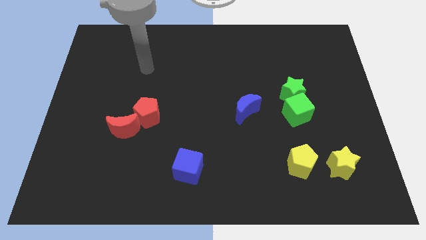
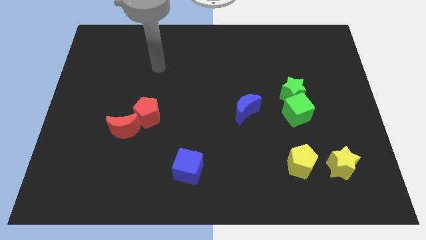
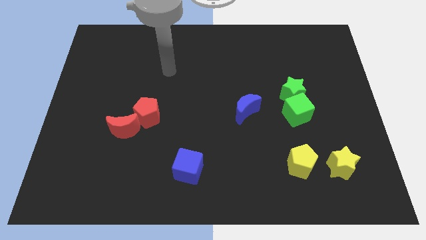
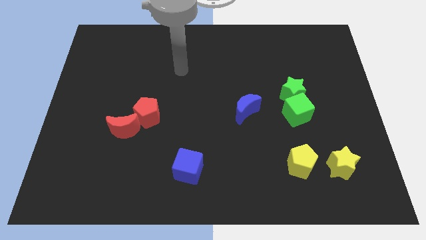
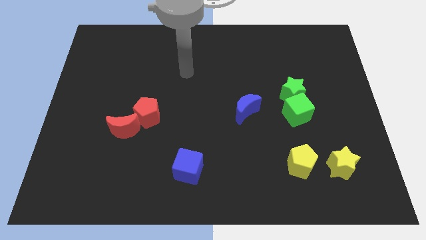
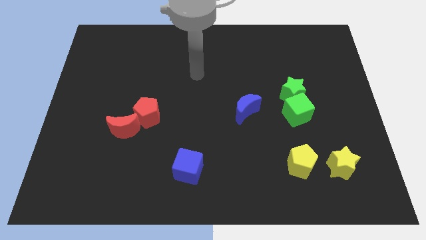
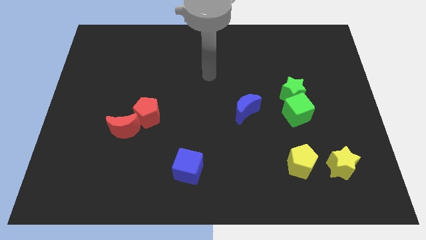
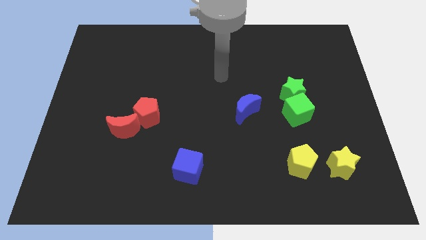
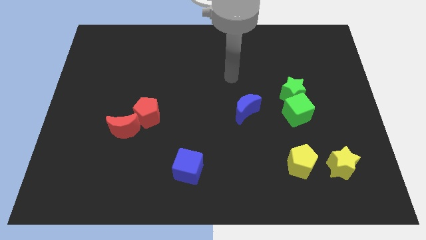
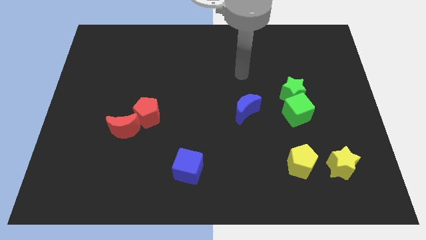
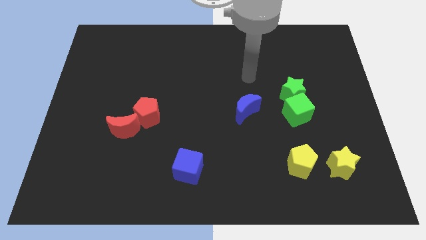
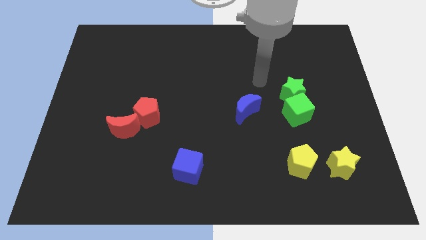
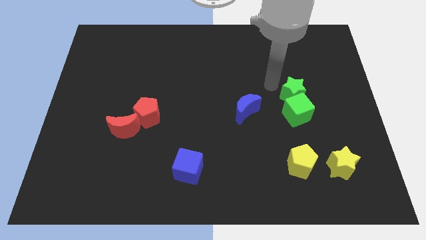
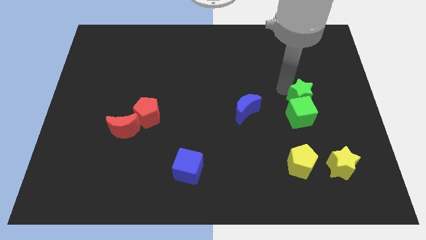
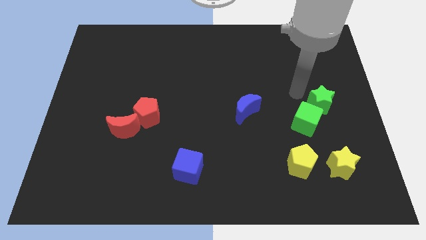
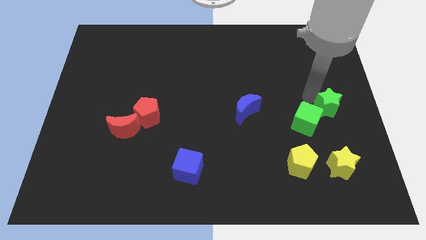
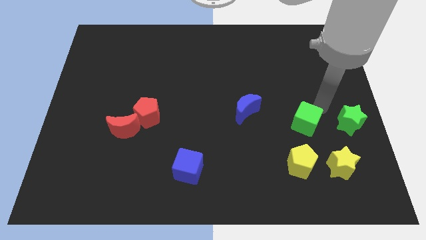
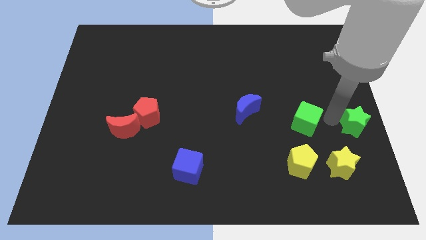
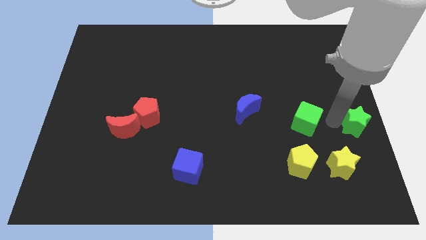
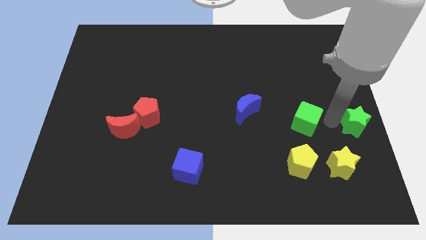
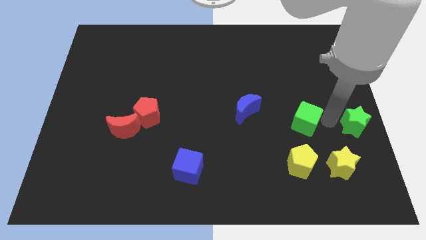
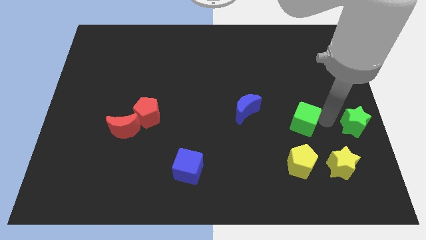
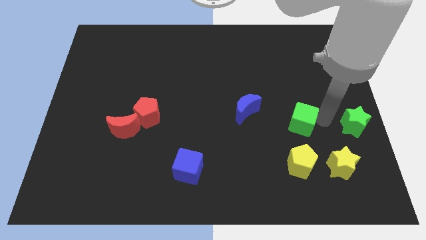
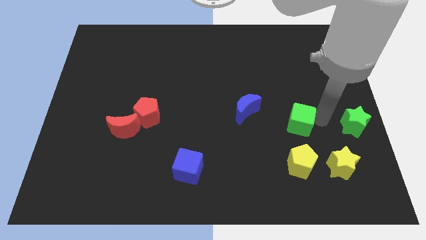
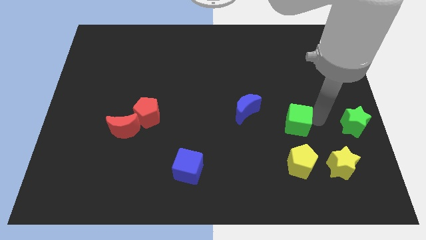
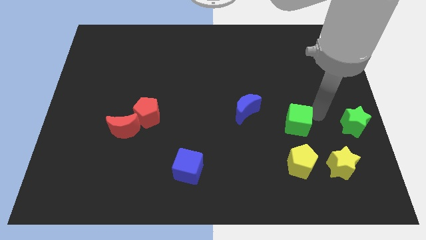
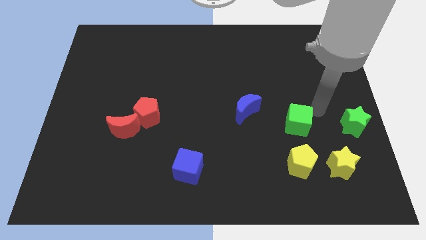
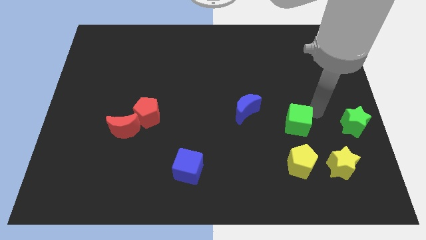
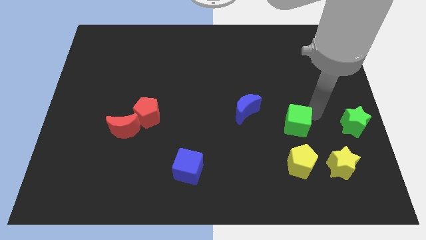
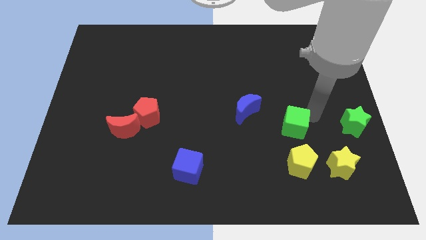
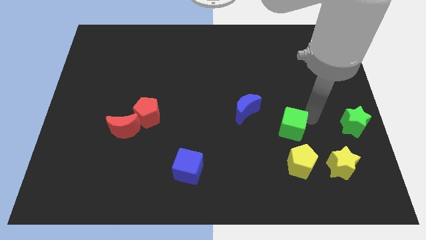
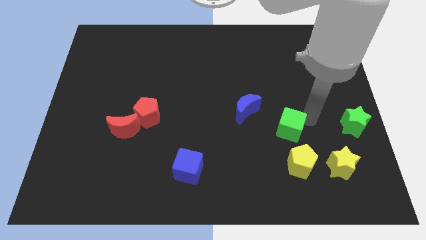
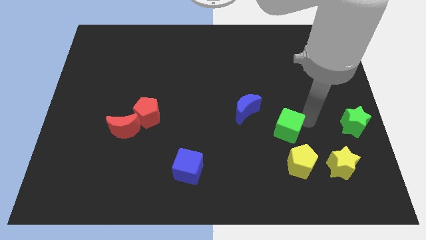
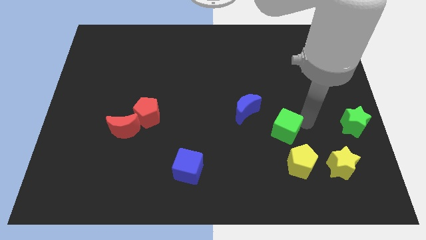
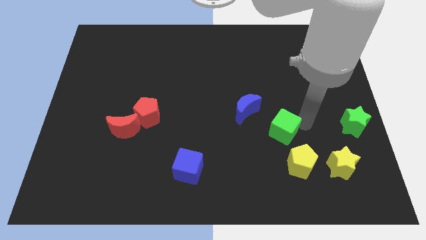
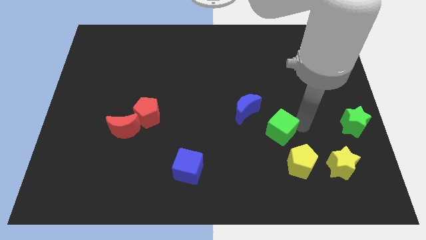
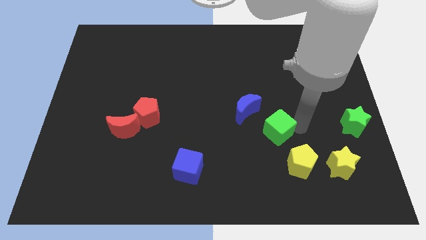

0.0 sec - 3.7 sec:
push the green cube diagonally downwards and left a bit

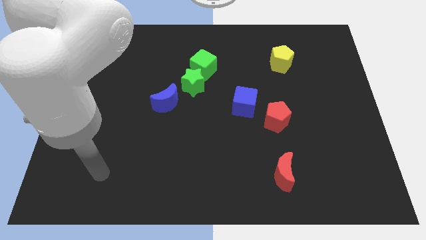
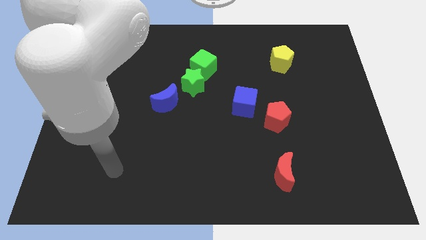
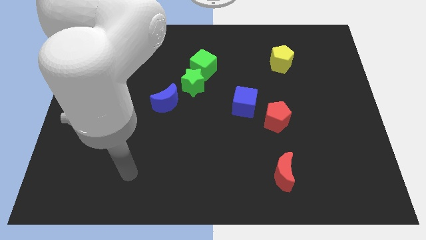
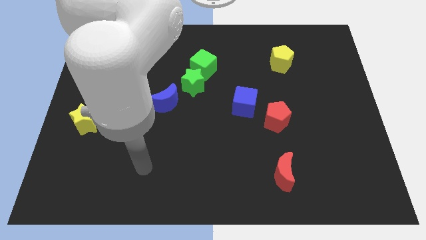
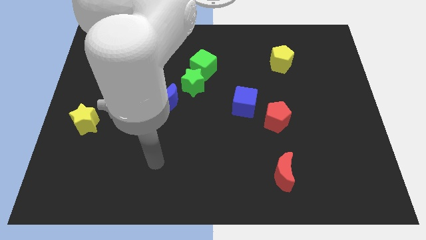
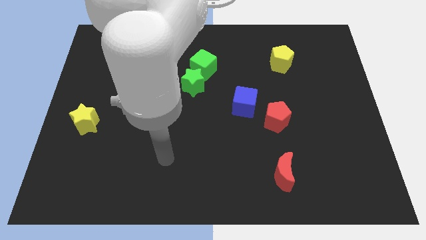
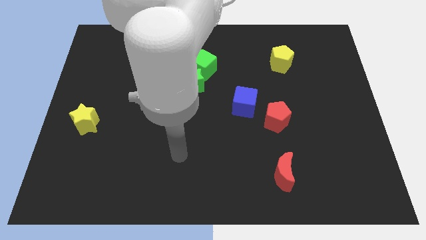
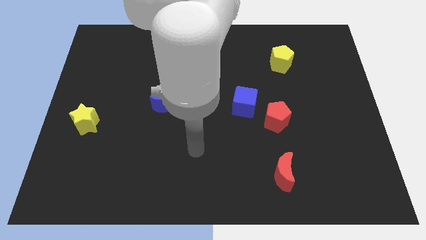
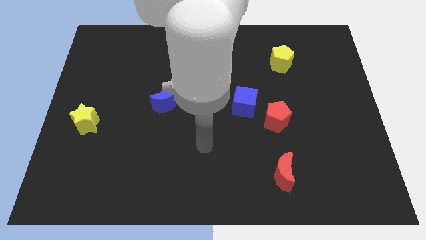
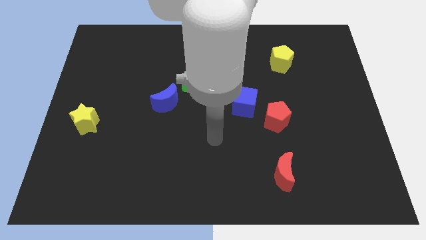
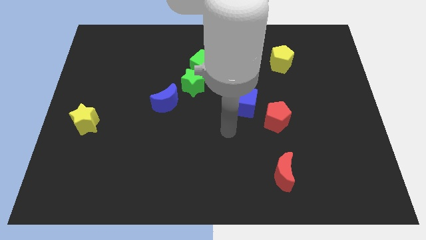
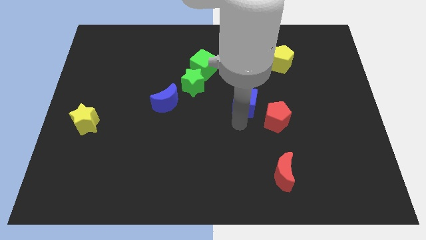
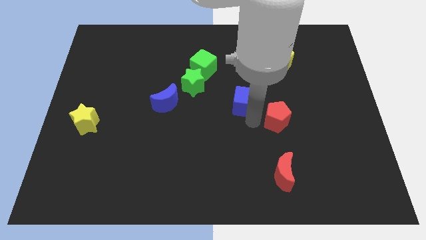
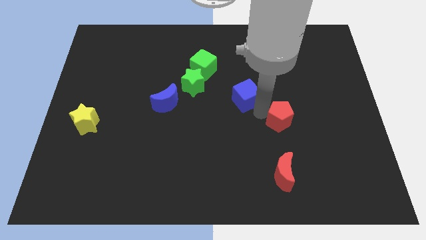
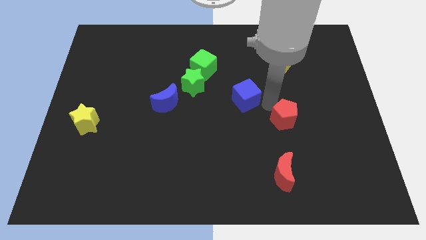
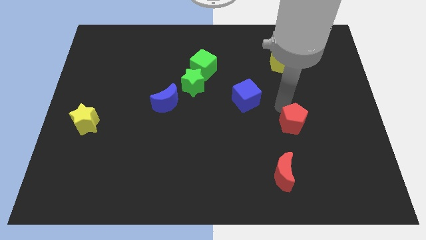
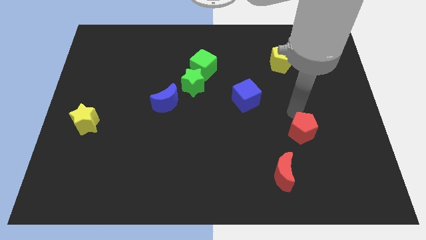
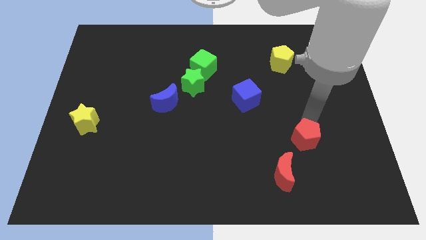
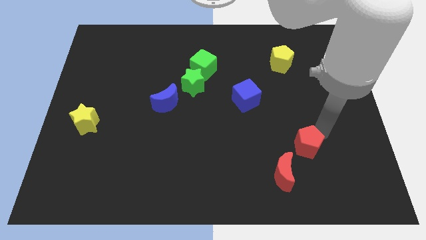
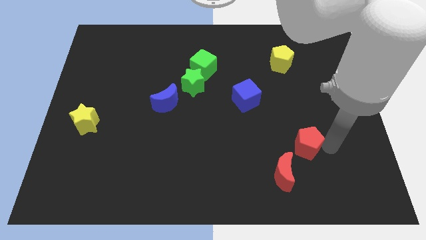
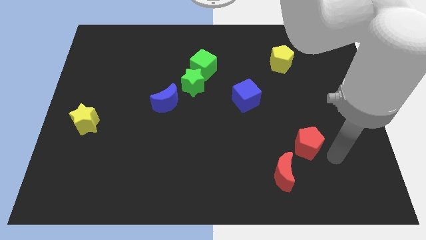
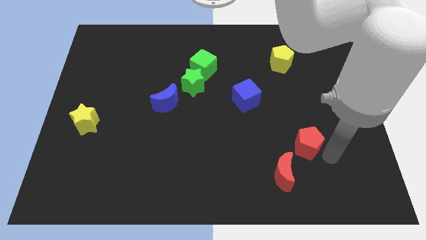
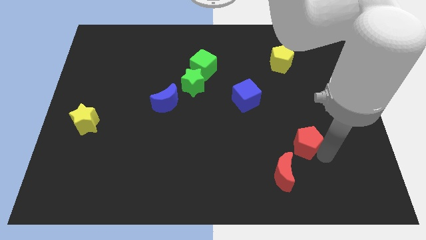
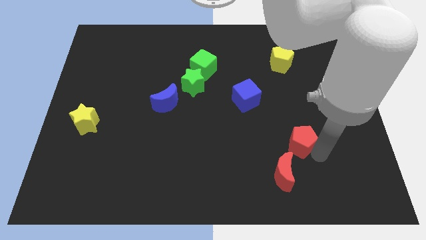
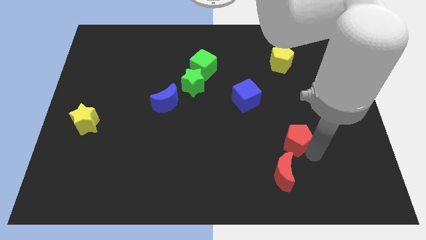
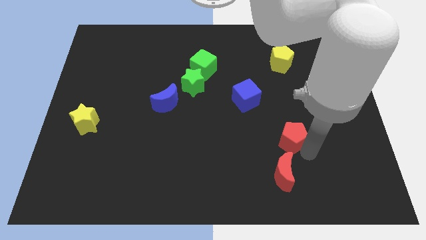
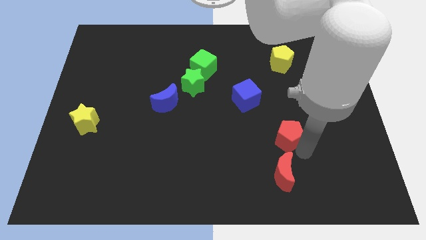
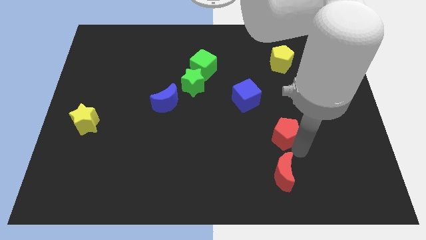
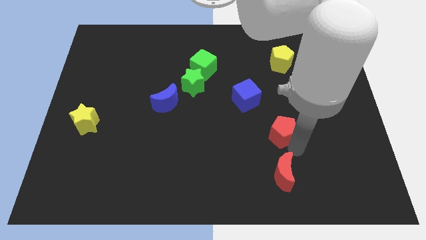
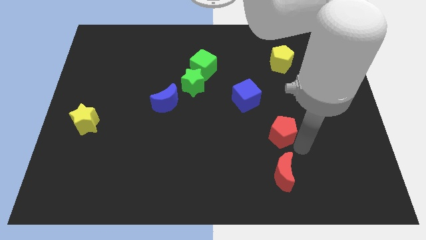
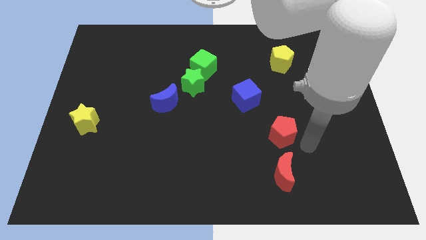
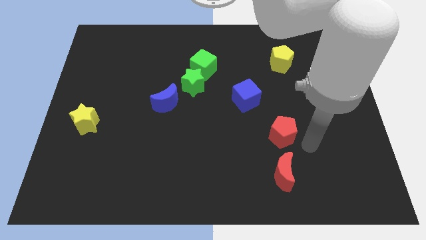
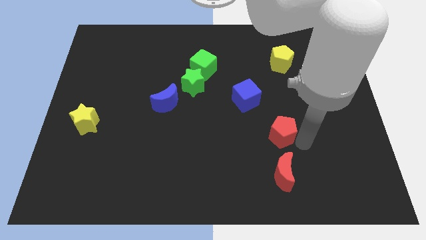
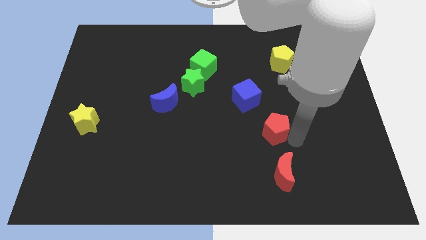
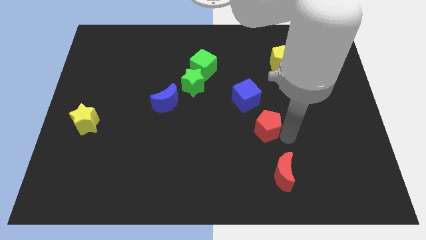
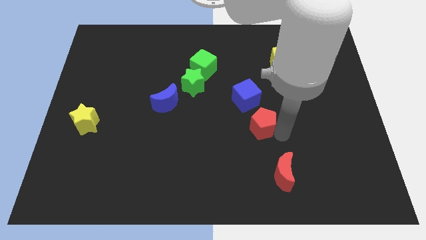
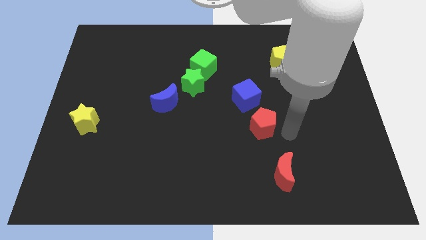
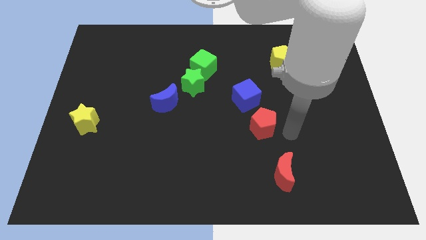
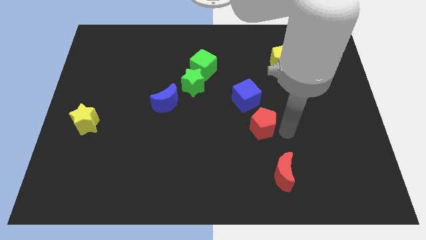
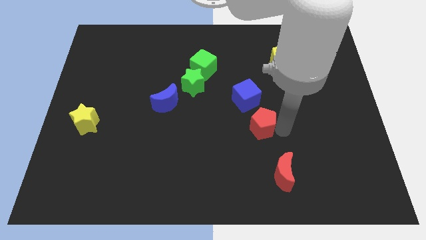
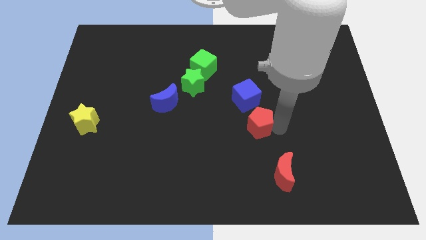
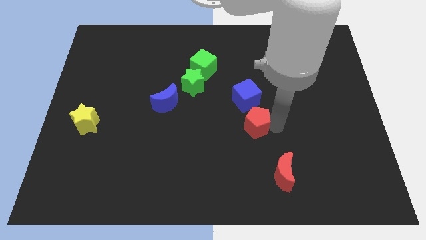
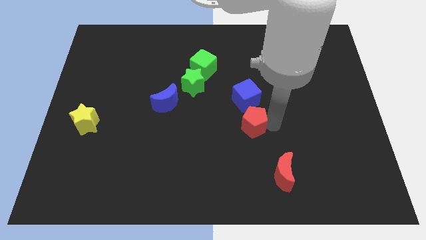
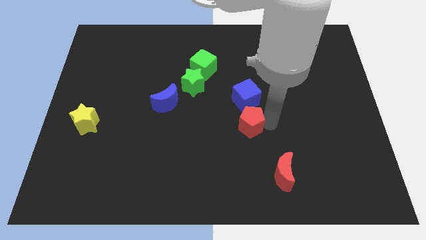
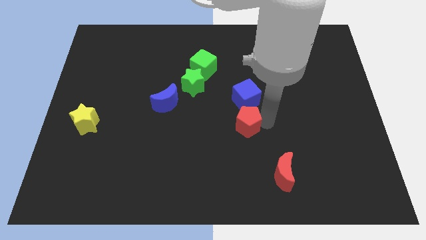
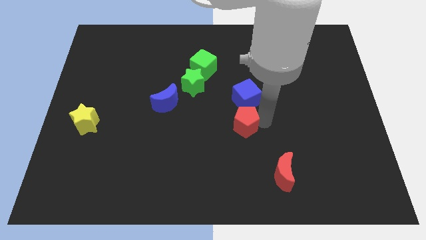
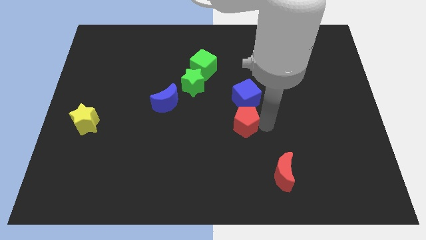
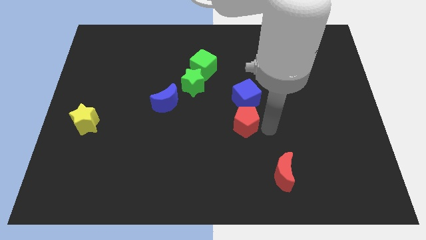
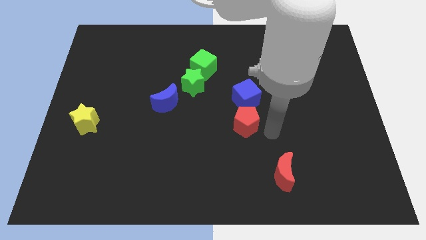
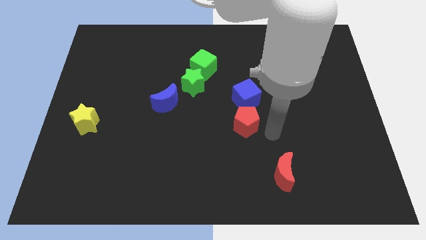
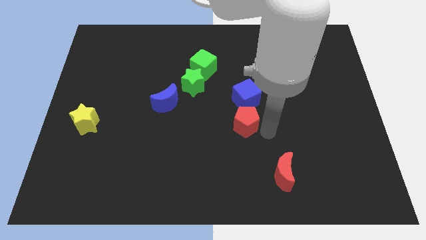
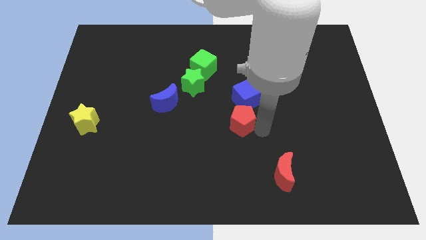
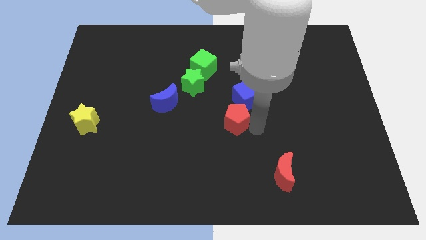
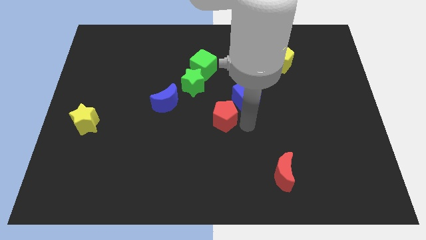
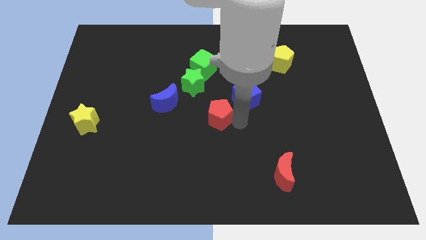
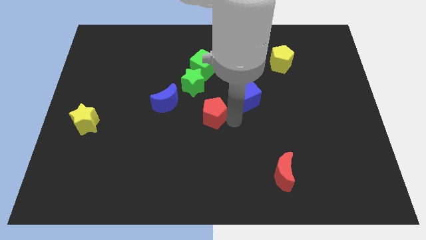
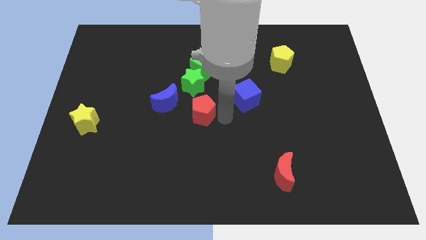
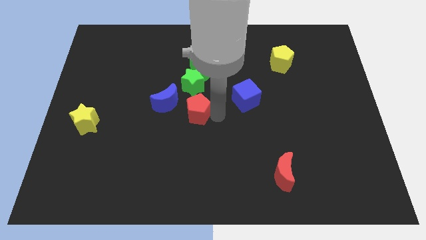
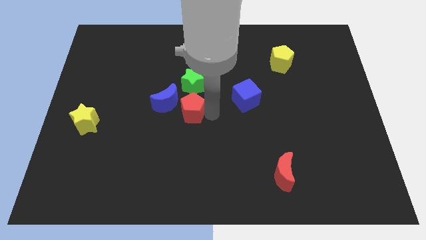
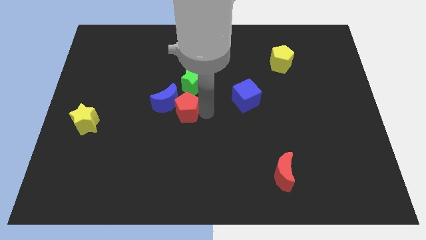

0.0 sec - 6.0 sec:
move the red pentagon left
